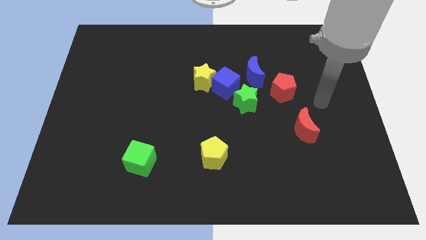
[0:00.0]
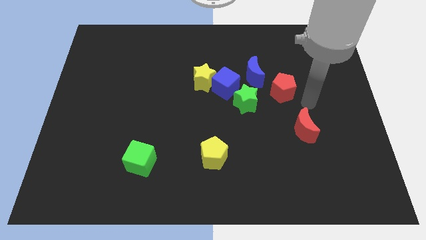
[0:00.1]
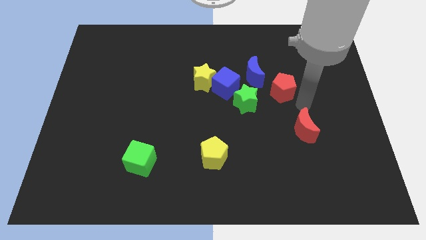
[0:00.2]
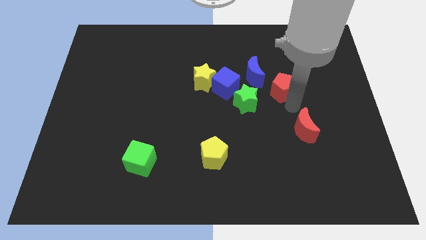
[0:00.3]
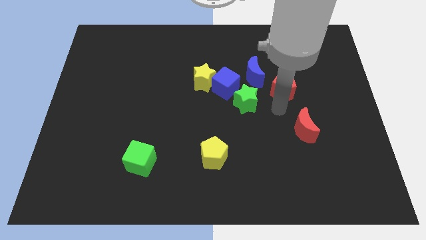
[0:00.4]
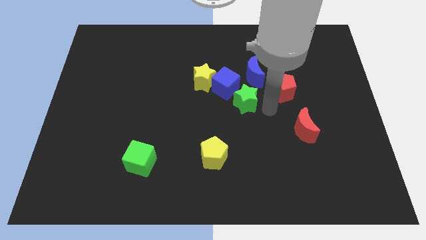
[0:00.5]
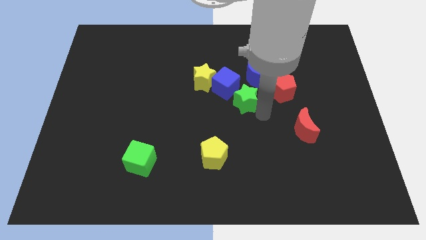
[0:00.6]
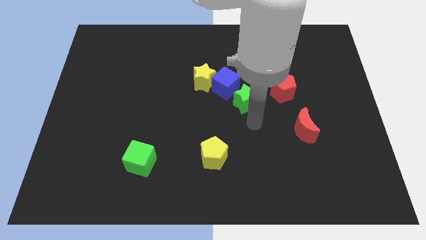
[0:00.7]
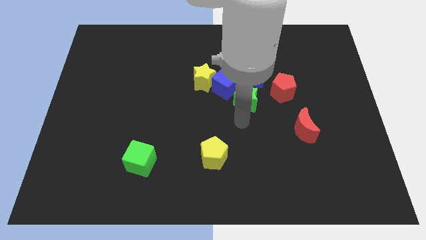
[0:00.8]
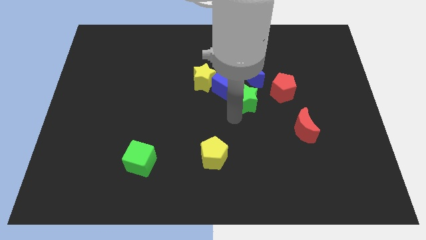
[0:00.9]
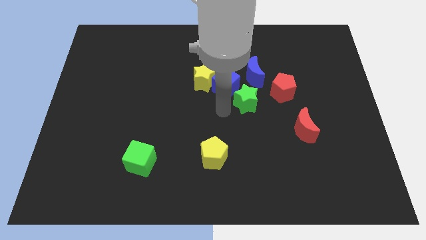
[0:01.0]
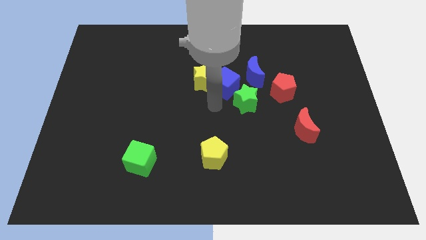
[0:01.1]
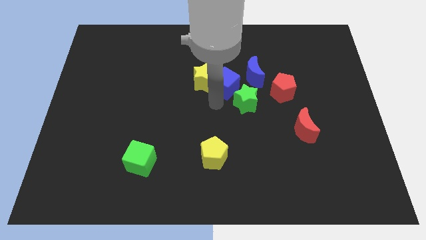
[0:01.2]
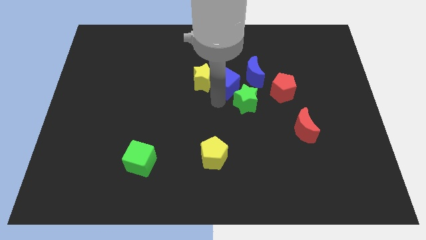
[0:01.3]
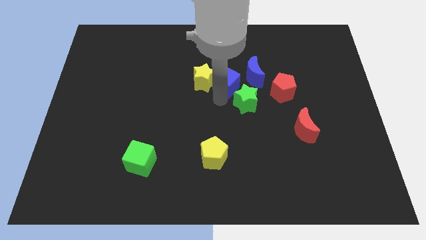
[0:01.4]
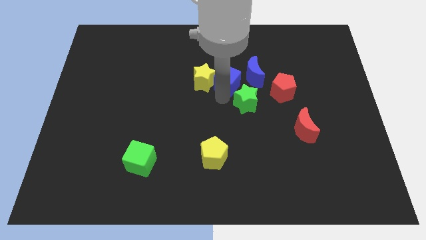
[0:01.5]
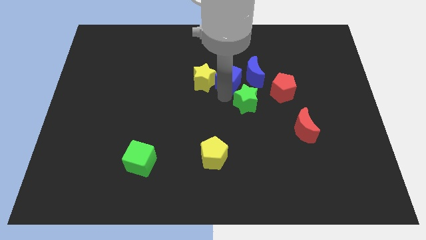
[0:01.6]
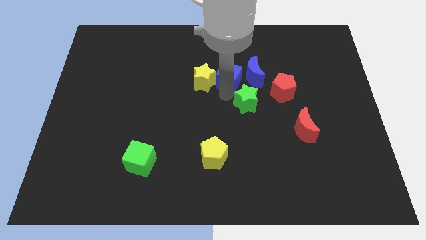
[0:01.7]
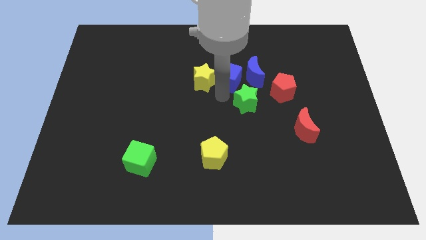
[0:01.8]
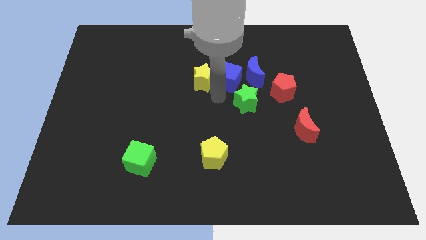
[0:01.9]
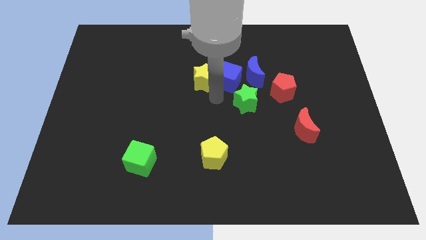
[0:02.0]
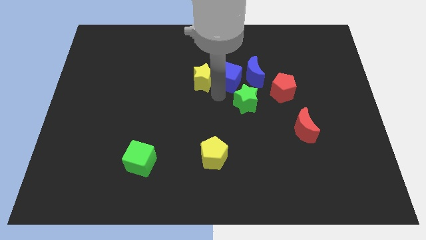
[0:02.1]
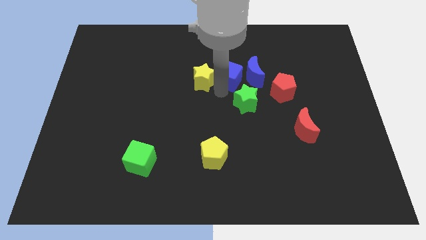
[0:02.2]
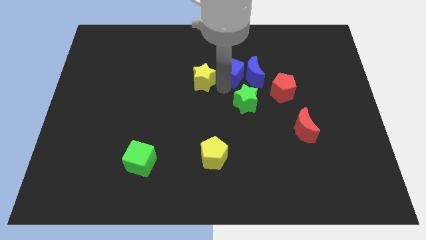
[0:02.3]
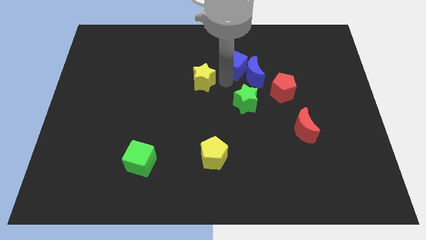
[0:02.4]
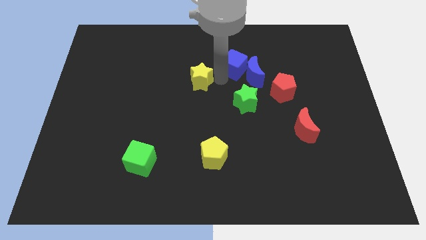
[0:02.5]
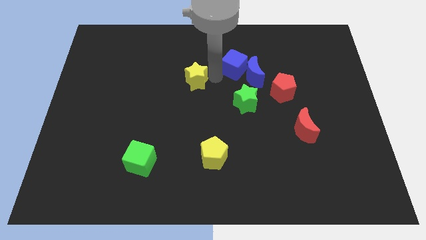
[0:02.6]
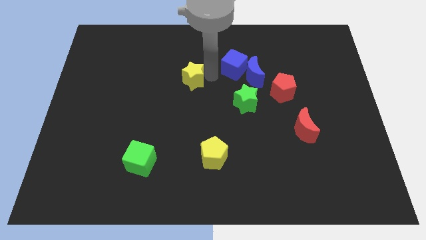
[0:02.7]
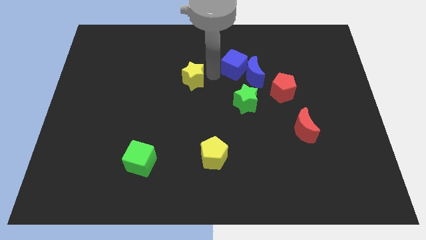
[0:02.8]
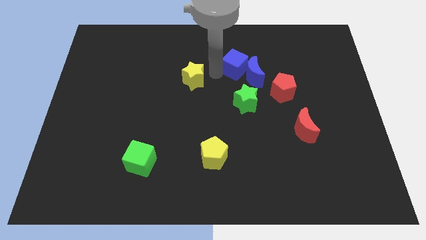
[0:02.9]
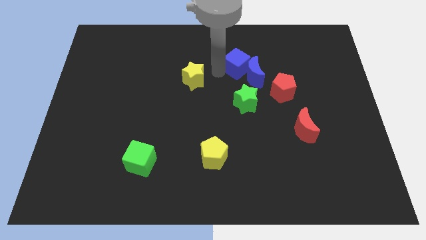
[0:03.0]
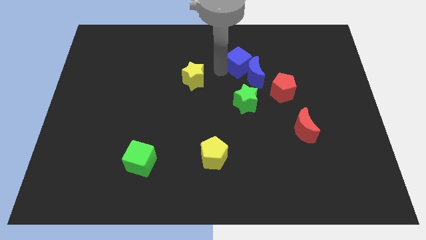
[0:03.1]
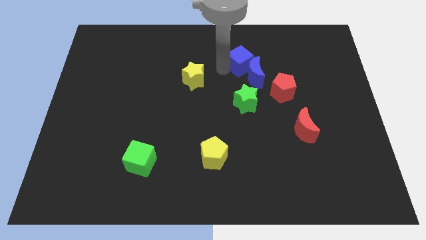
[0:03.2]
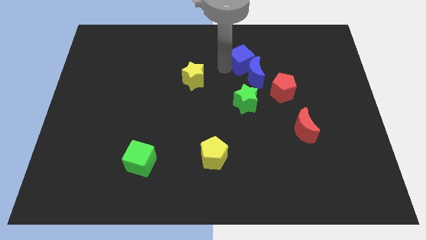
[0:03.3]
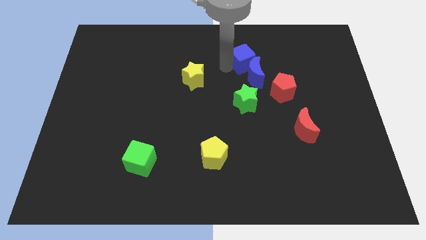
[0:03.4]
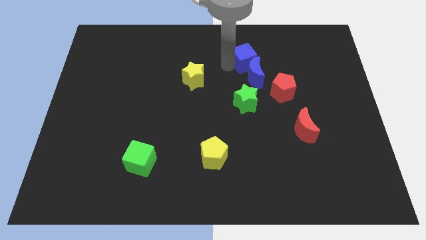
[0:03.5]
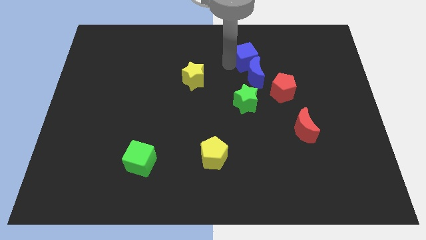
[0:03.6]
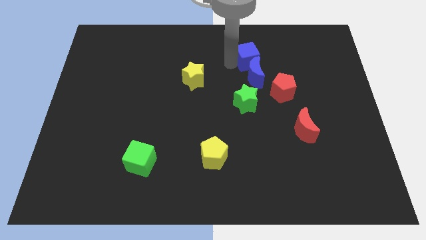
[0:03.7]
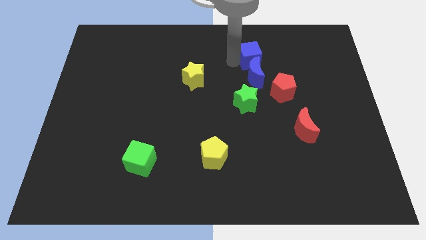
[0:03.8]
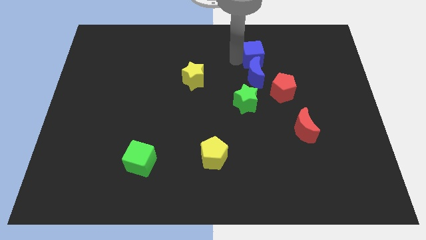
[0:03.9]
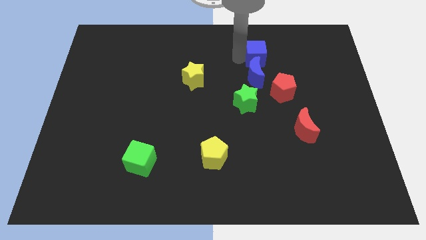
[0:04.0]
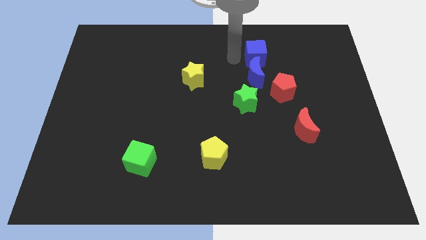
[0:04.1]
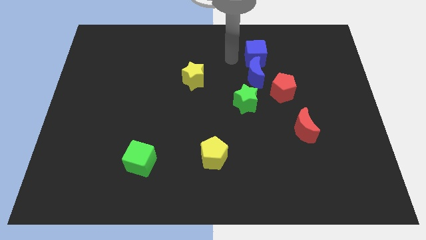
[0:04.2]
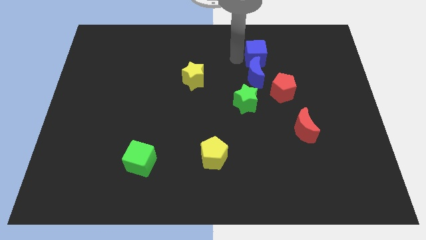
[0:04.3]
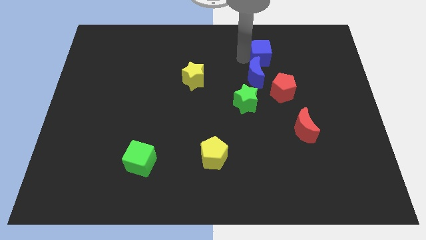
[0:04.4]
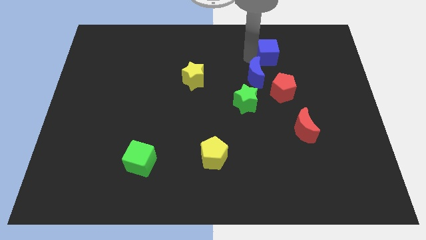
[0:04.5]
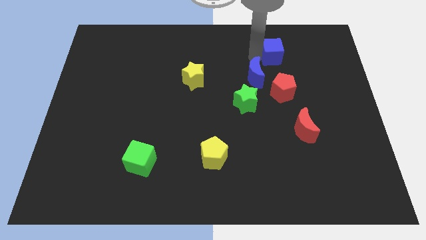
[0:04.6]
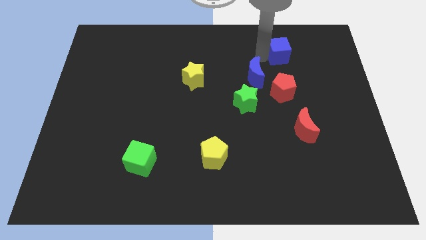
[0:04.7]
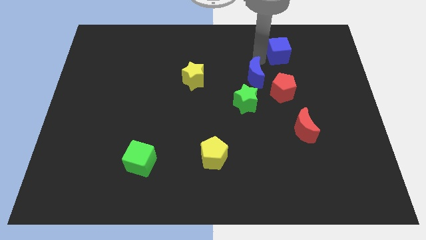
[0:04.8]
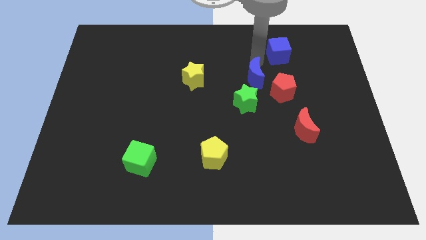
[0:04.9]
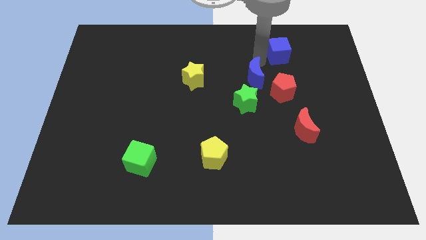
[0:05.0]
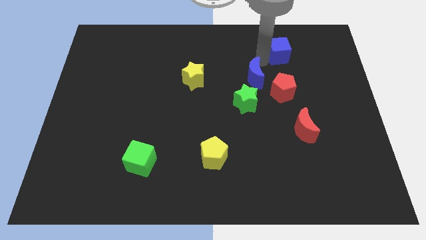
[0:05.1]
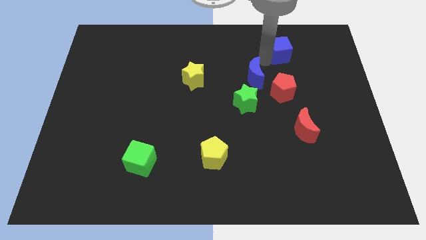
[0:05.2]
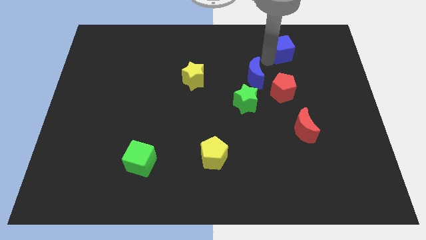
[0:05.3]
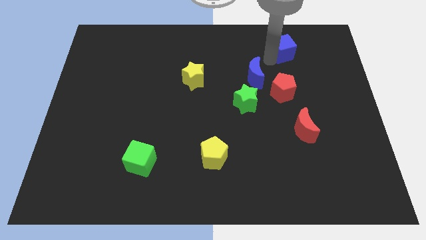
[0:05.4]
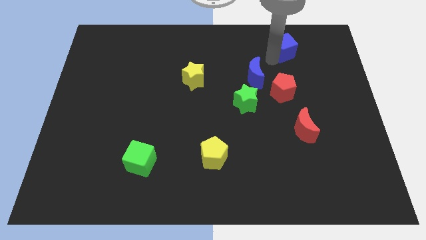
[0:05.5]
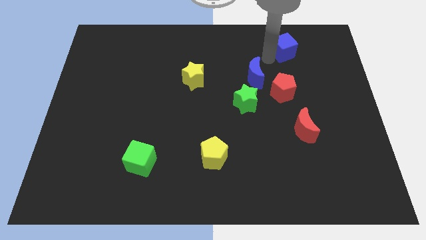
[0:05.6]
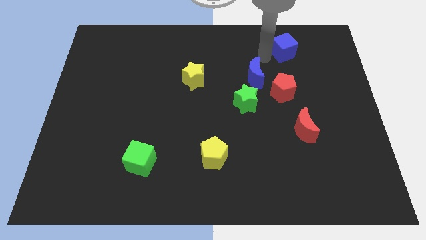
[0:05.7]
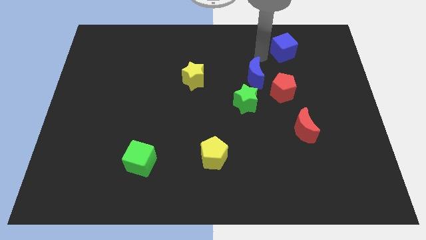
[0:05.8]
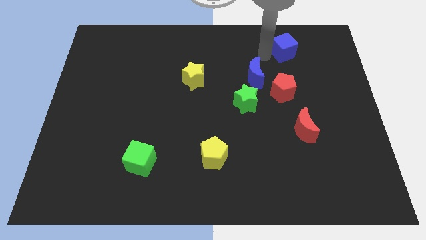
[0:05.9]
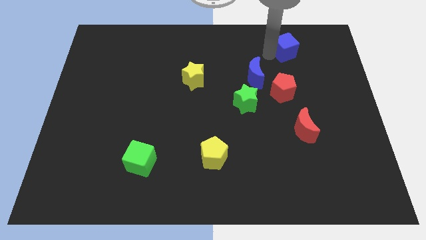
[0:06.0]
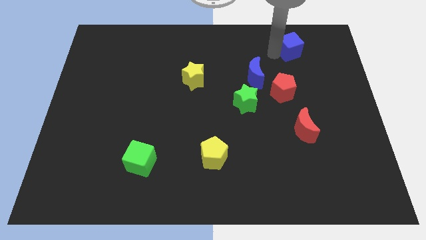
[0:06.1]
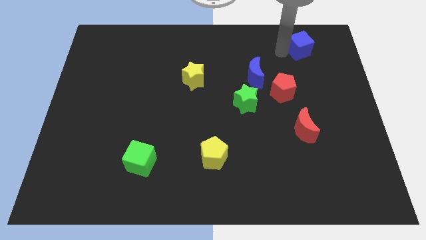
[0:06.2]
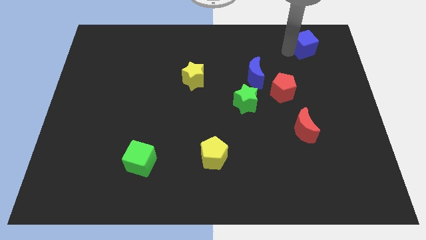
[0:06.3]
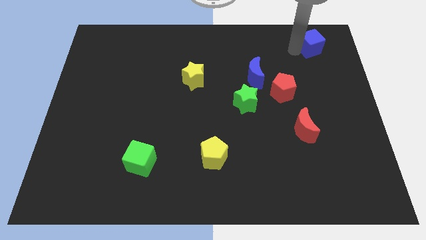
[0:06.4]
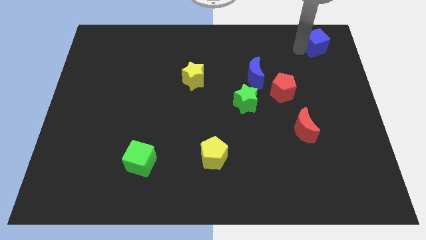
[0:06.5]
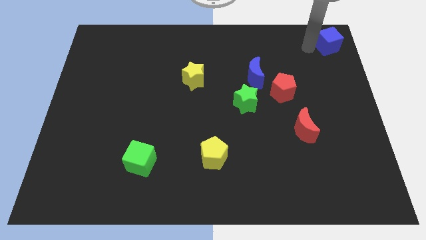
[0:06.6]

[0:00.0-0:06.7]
put the blue cube to the top right
